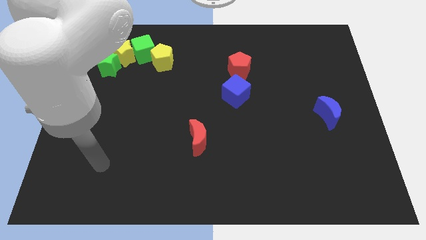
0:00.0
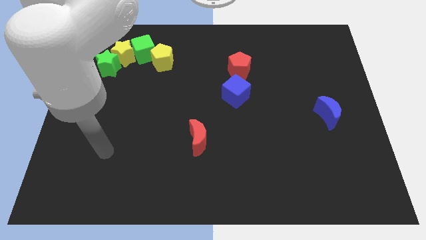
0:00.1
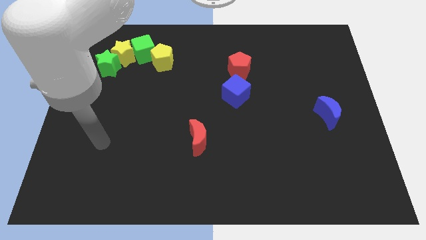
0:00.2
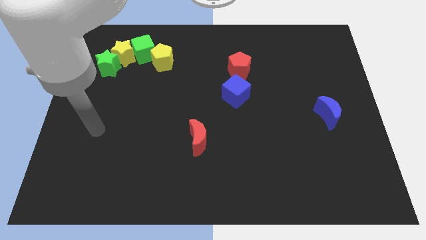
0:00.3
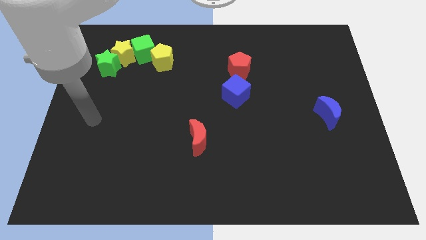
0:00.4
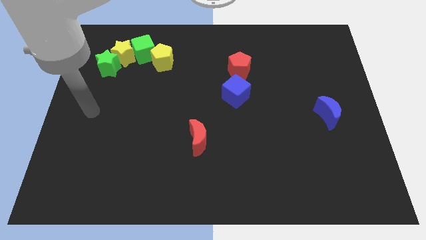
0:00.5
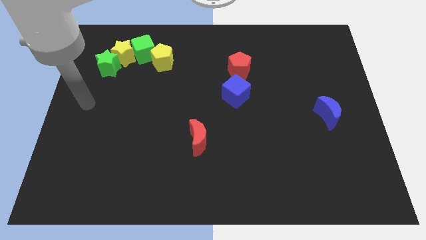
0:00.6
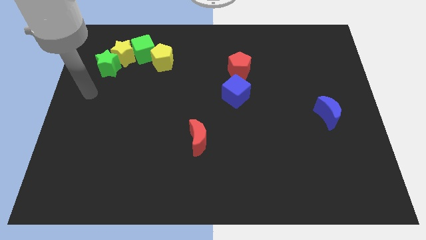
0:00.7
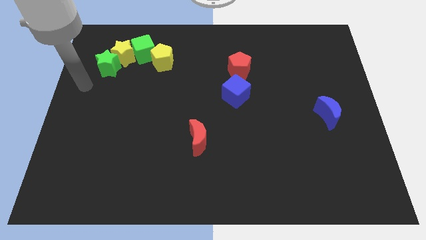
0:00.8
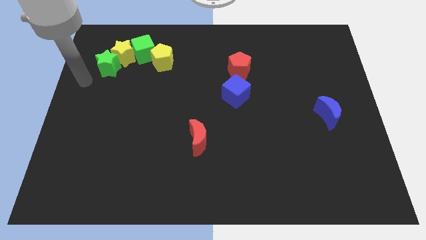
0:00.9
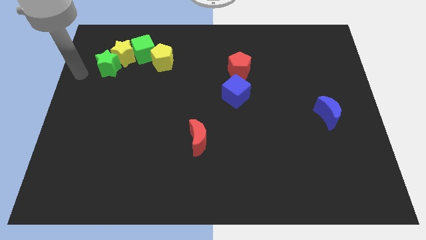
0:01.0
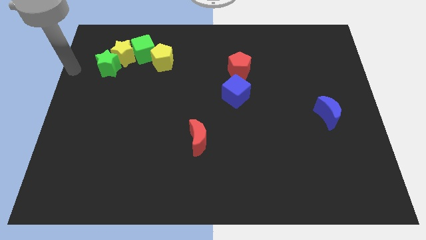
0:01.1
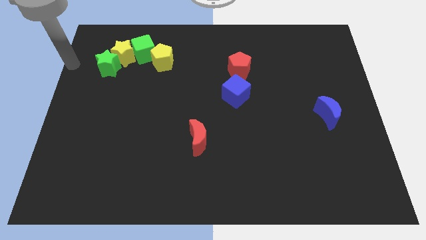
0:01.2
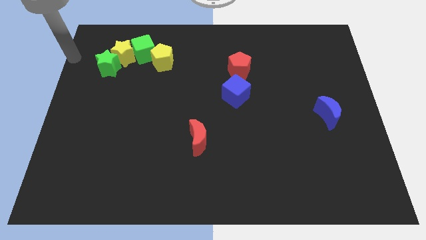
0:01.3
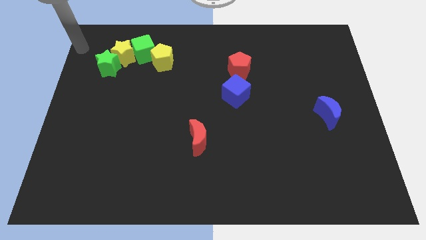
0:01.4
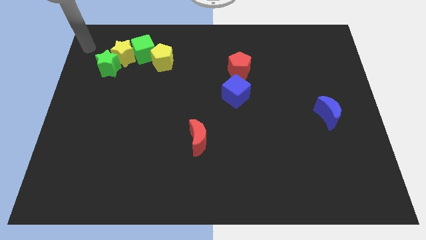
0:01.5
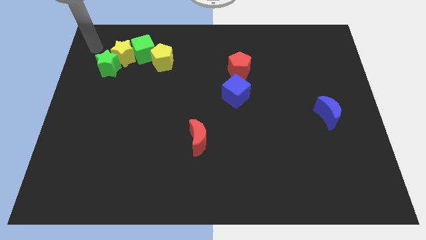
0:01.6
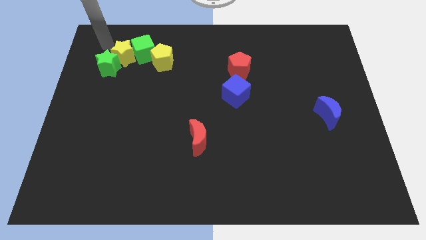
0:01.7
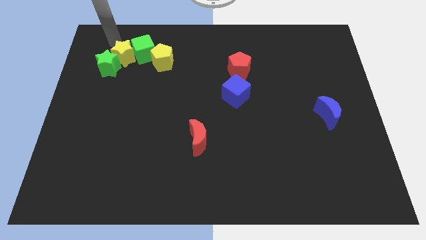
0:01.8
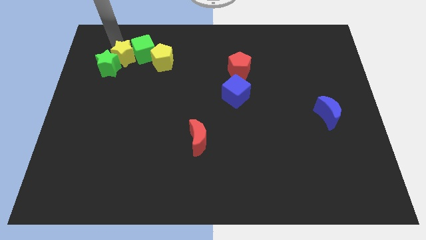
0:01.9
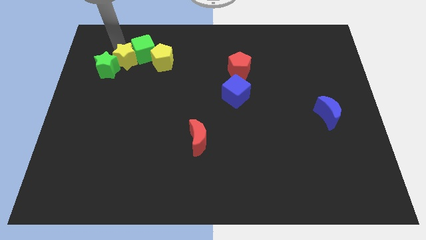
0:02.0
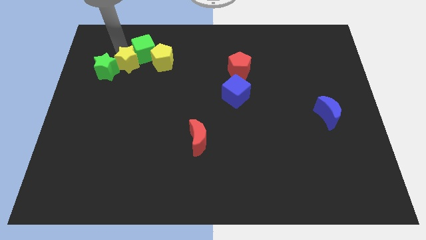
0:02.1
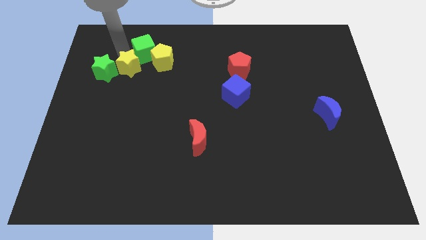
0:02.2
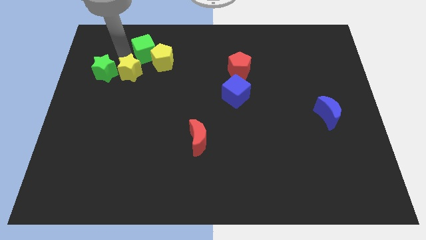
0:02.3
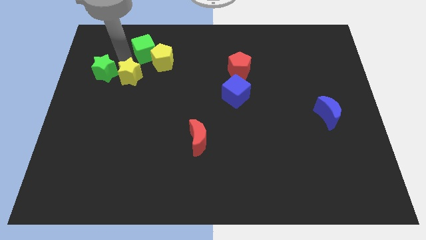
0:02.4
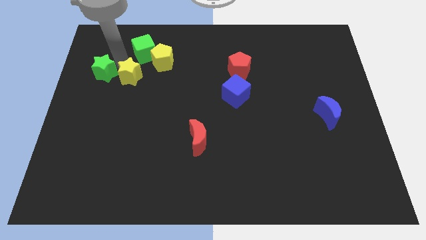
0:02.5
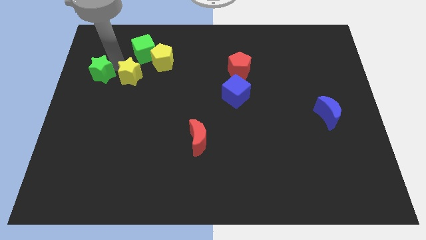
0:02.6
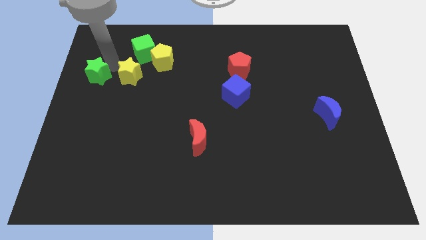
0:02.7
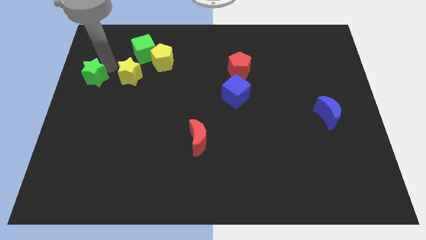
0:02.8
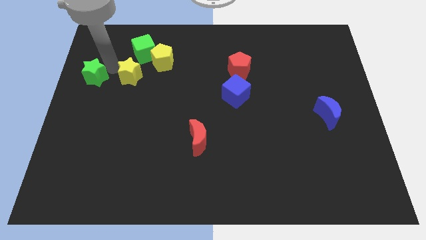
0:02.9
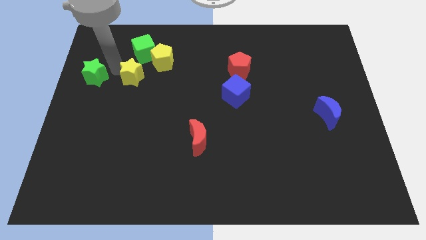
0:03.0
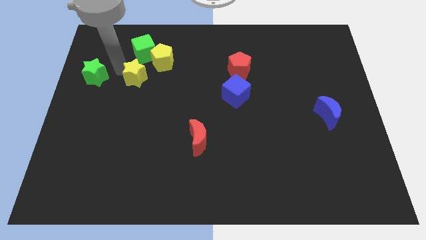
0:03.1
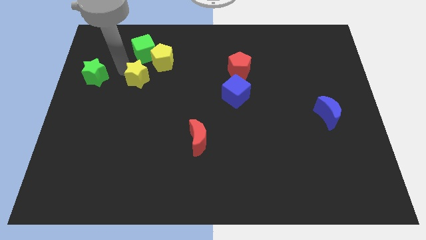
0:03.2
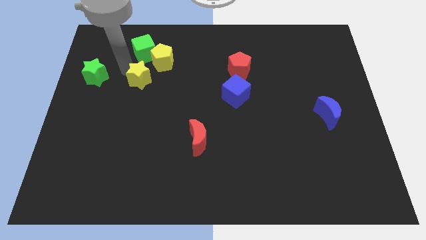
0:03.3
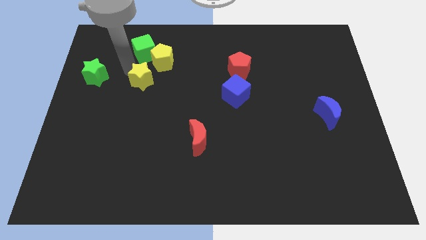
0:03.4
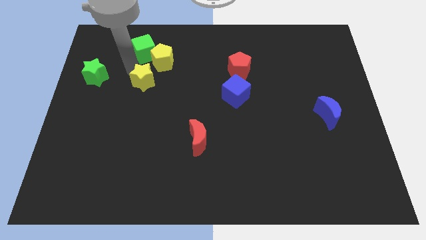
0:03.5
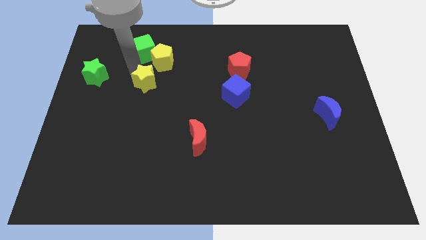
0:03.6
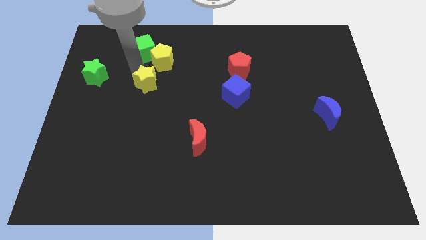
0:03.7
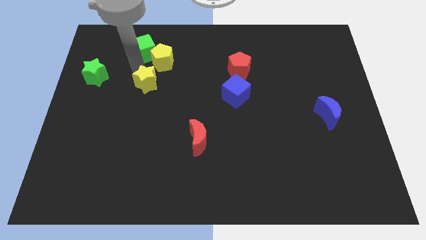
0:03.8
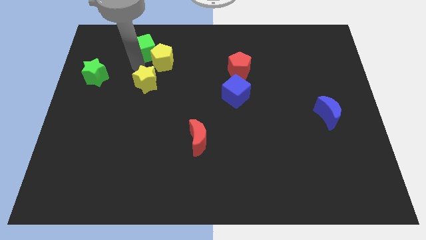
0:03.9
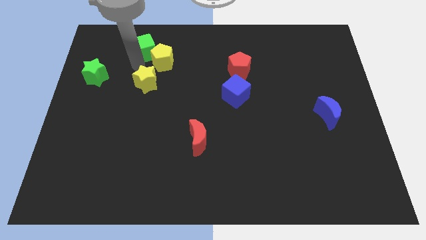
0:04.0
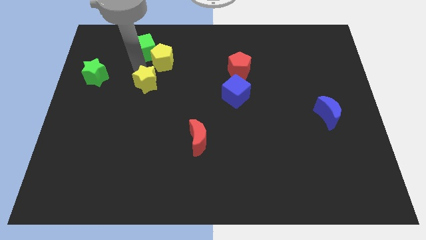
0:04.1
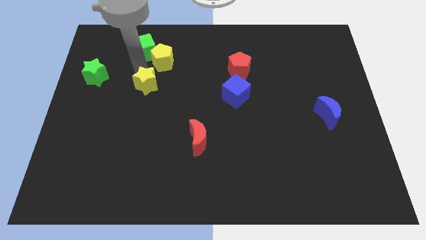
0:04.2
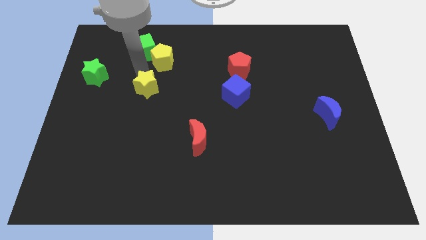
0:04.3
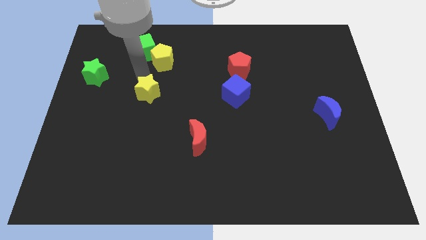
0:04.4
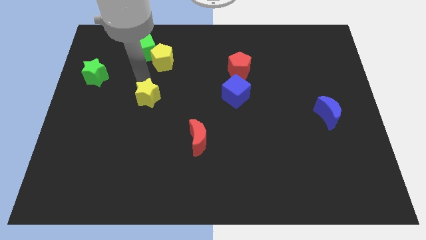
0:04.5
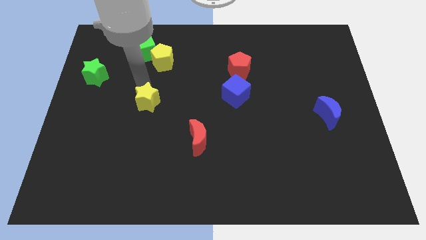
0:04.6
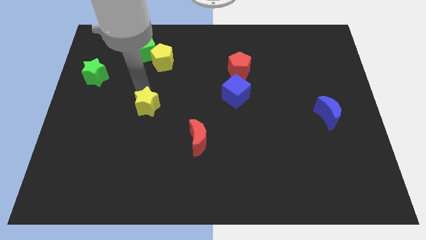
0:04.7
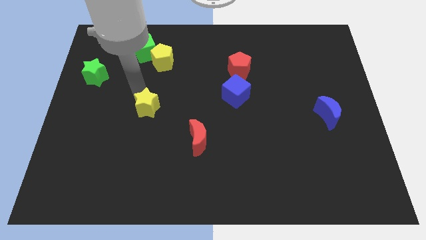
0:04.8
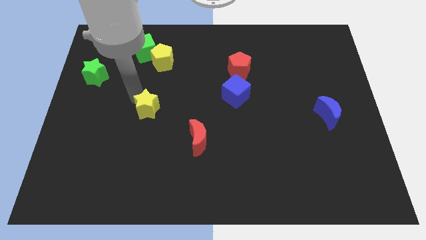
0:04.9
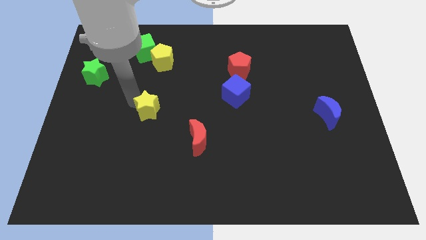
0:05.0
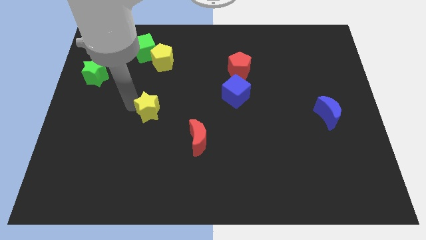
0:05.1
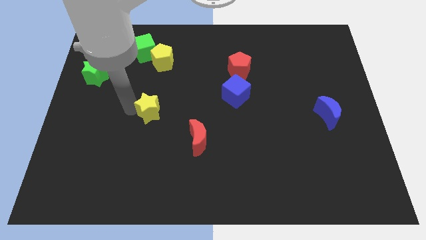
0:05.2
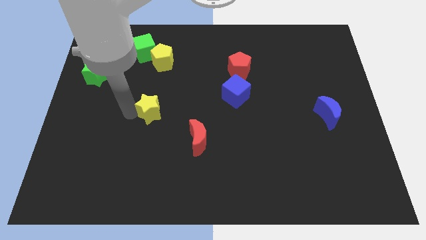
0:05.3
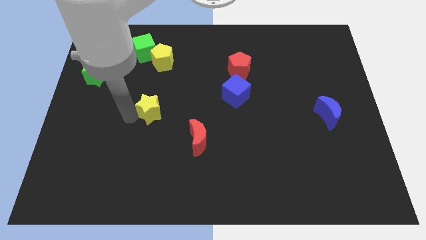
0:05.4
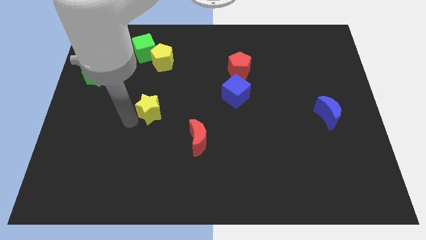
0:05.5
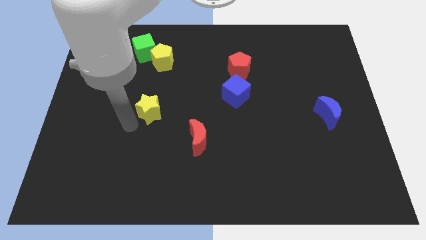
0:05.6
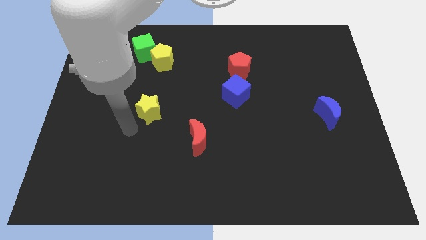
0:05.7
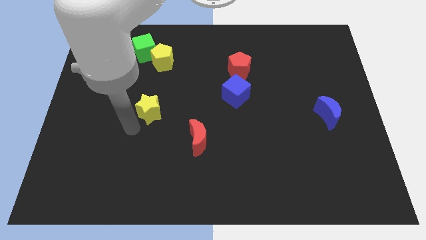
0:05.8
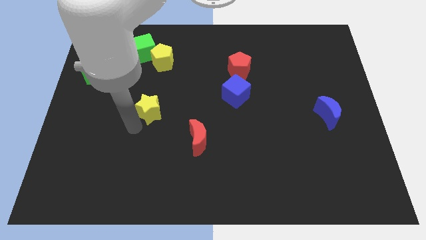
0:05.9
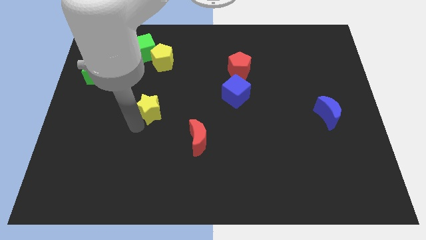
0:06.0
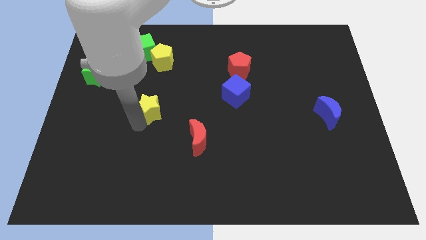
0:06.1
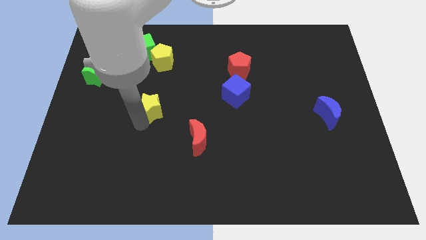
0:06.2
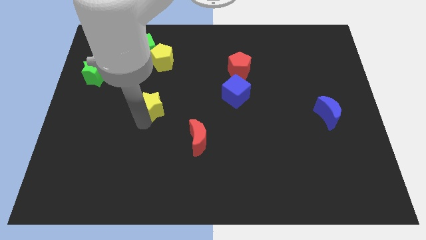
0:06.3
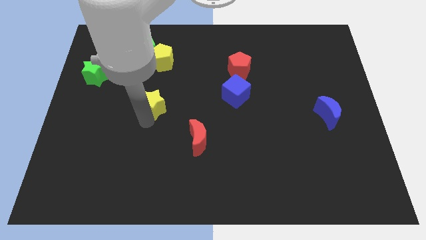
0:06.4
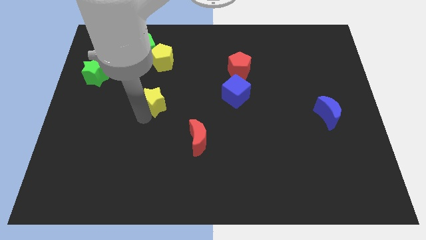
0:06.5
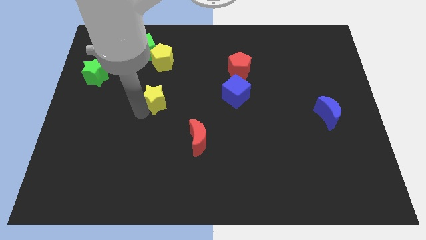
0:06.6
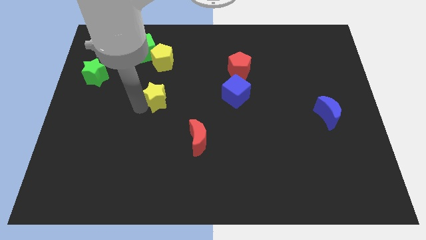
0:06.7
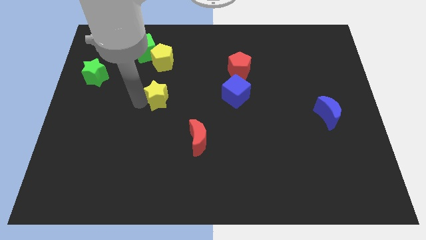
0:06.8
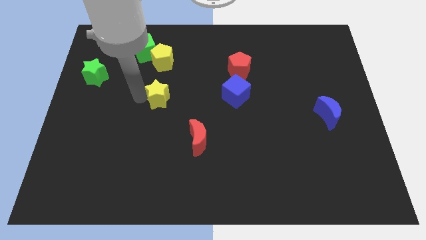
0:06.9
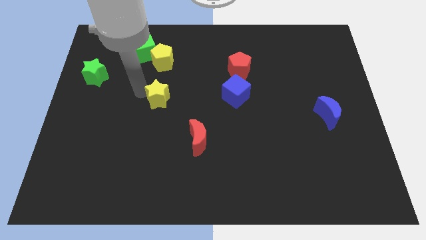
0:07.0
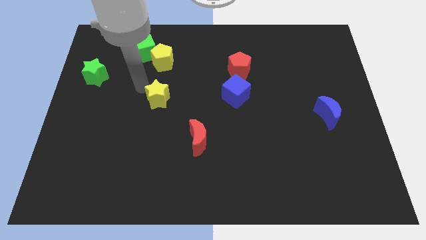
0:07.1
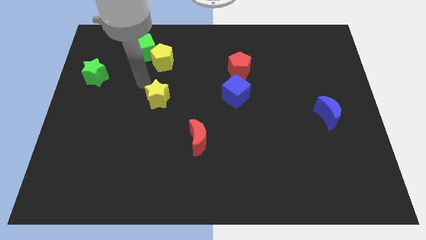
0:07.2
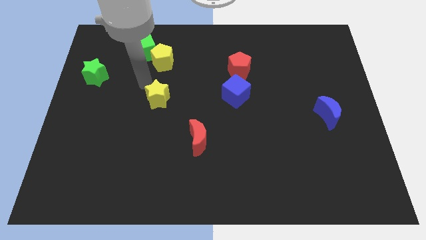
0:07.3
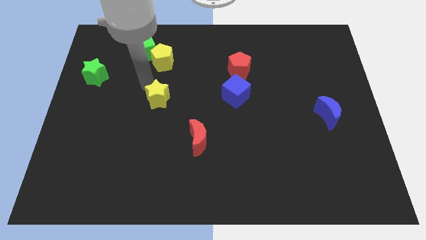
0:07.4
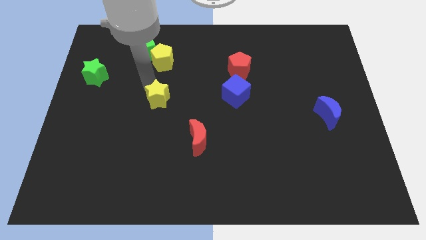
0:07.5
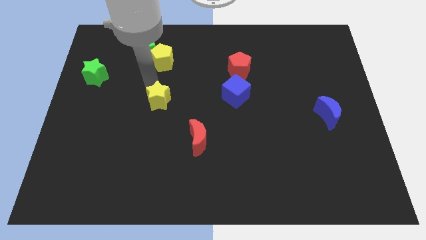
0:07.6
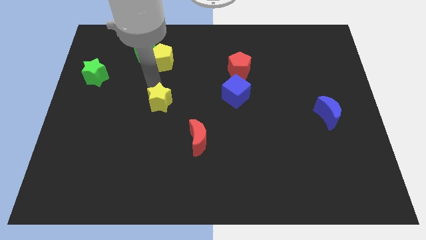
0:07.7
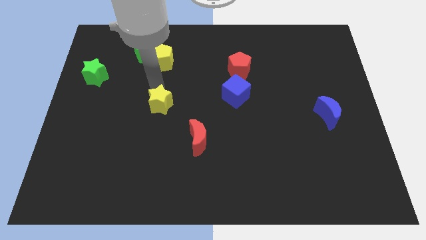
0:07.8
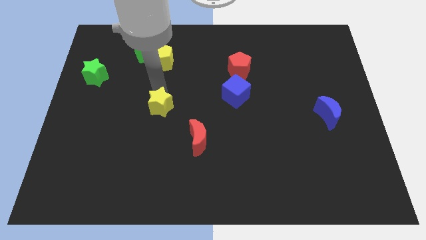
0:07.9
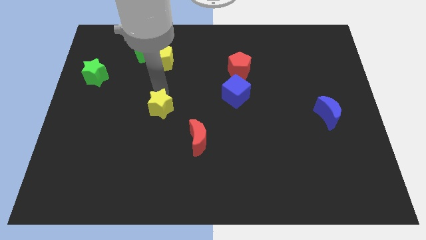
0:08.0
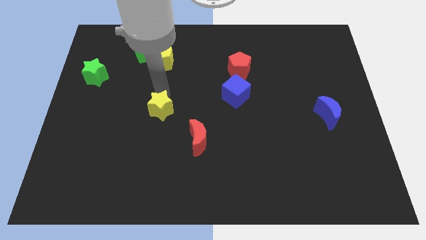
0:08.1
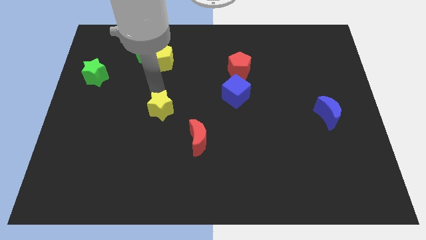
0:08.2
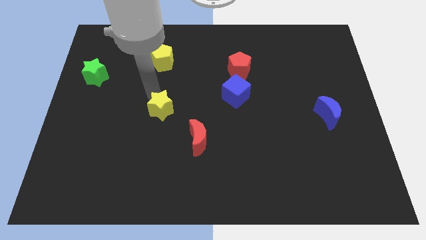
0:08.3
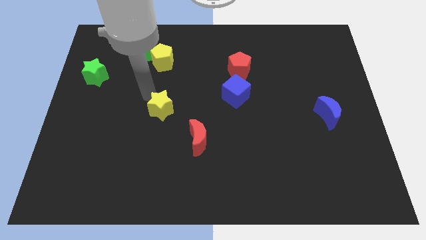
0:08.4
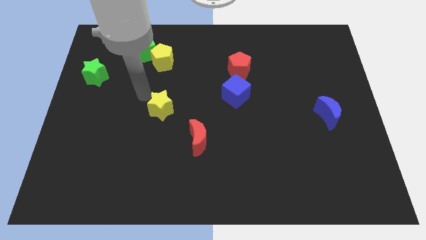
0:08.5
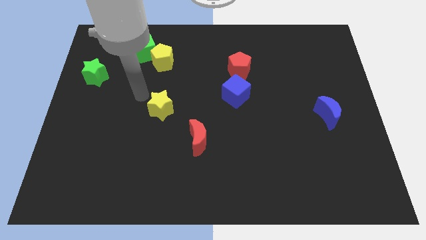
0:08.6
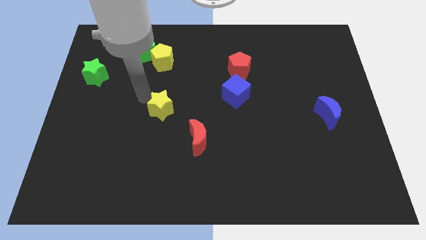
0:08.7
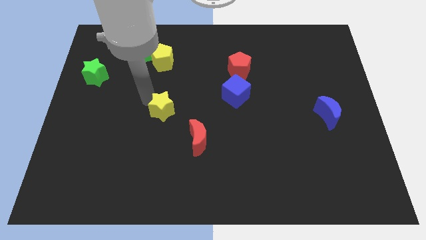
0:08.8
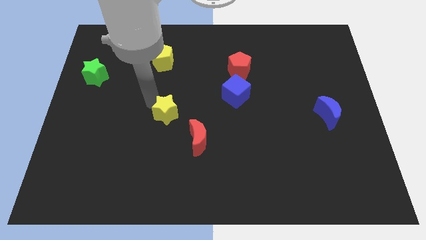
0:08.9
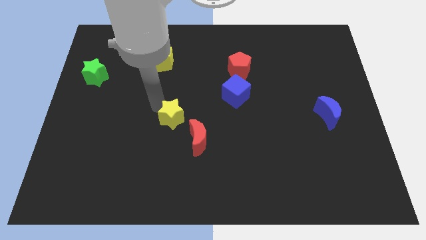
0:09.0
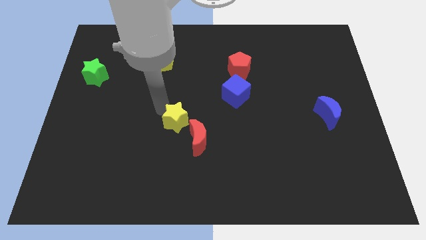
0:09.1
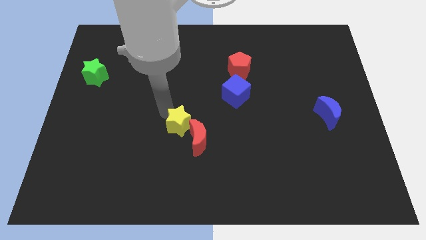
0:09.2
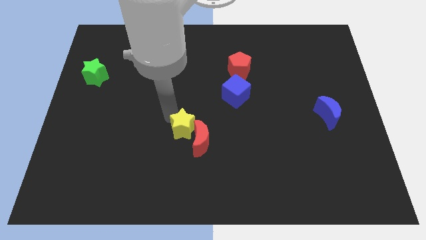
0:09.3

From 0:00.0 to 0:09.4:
push the yellow star to the red moon
